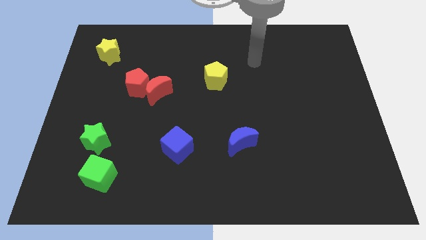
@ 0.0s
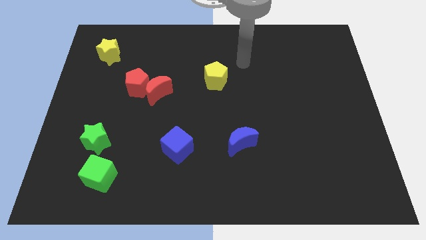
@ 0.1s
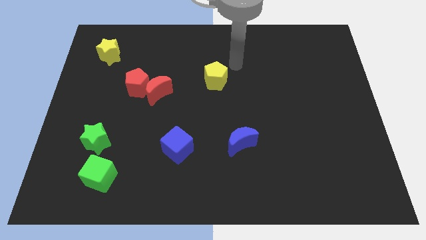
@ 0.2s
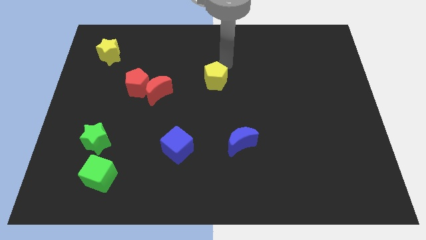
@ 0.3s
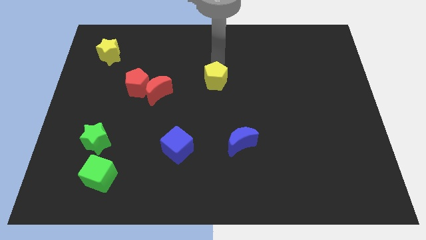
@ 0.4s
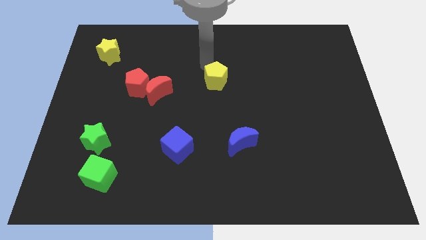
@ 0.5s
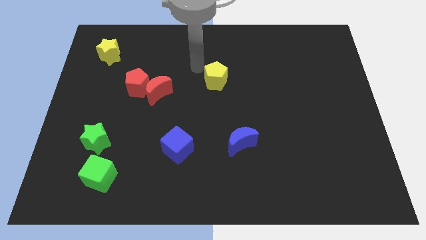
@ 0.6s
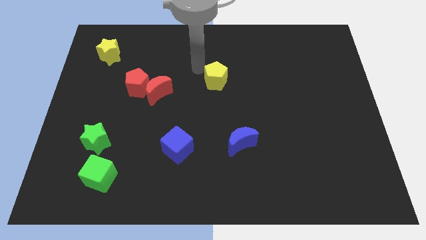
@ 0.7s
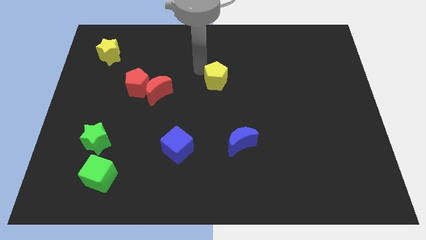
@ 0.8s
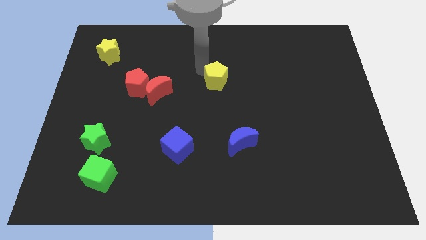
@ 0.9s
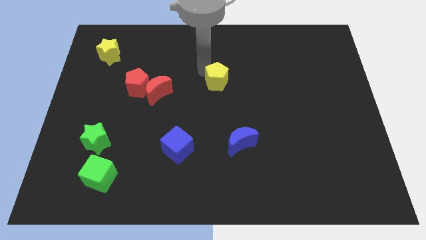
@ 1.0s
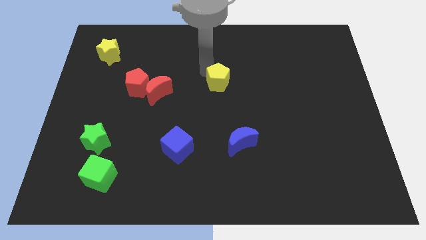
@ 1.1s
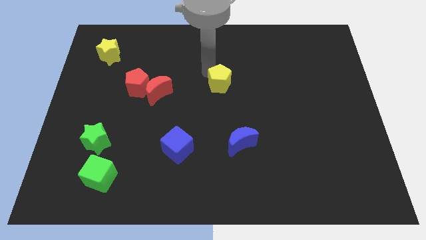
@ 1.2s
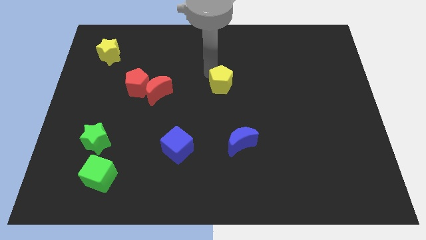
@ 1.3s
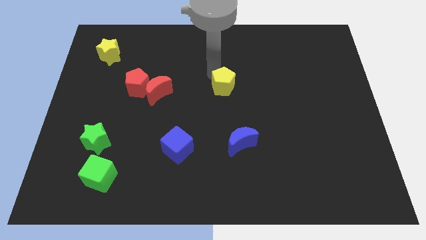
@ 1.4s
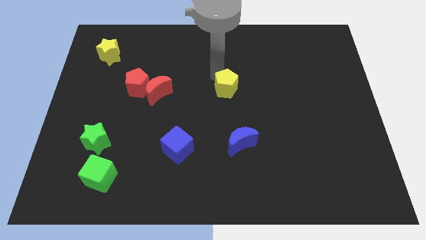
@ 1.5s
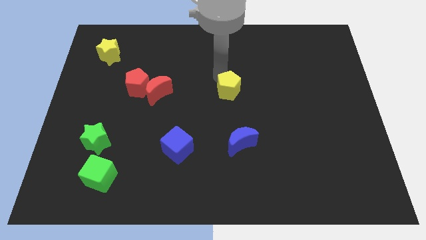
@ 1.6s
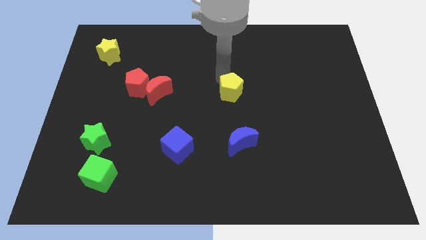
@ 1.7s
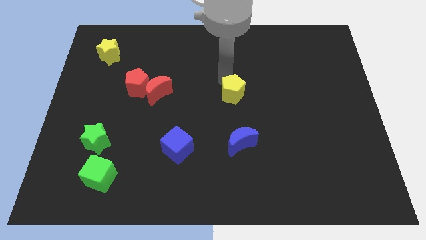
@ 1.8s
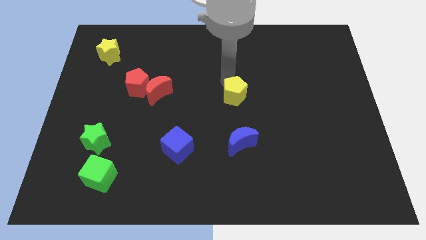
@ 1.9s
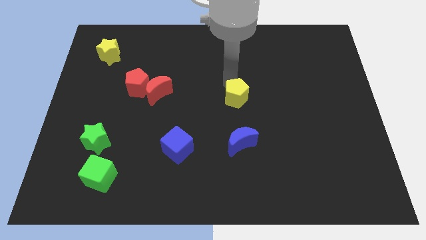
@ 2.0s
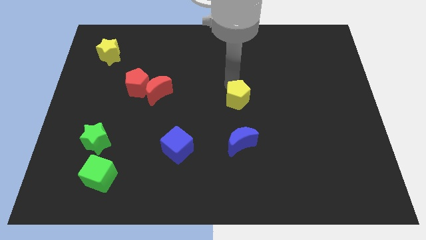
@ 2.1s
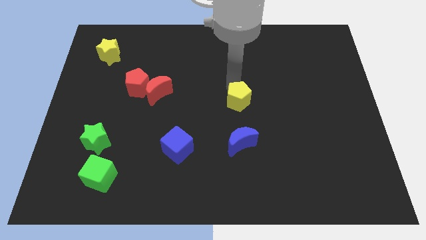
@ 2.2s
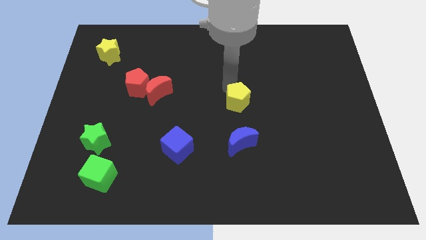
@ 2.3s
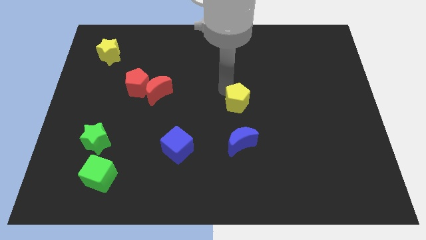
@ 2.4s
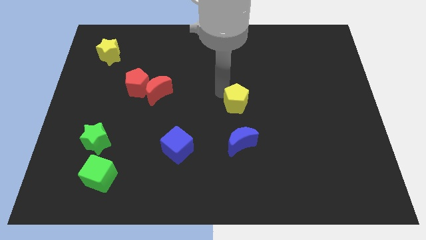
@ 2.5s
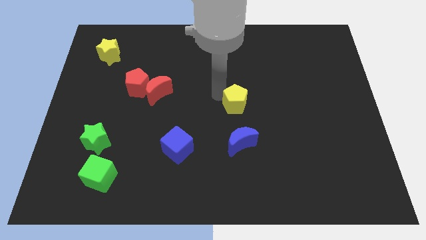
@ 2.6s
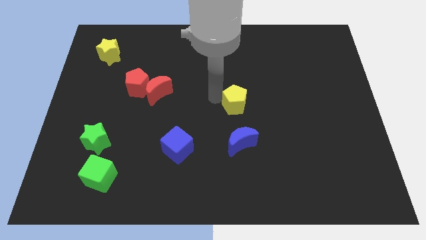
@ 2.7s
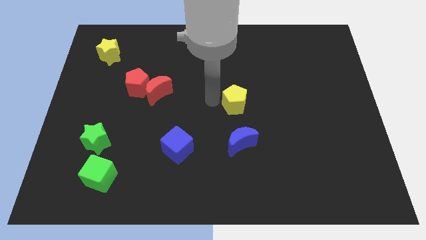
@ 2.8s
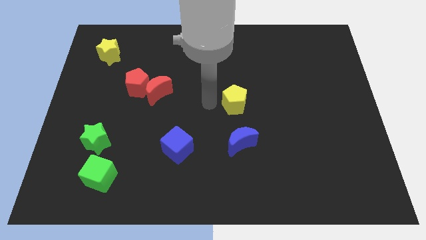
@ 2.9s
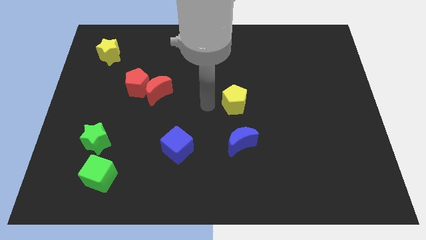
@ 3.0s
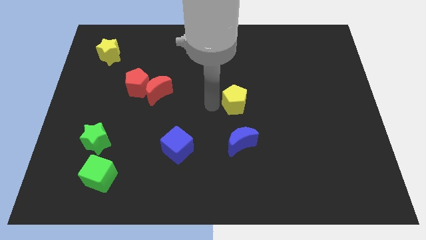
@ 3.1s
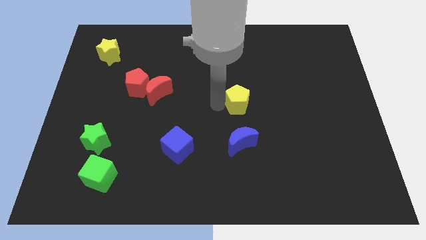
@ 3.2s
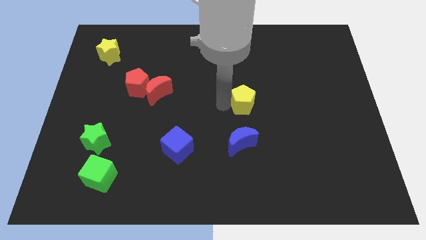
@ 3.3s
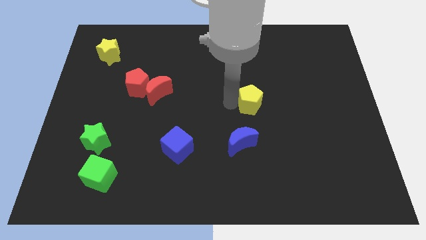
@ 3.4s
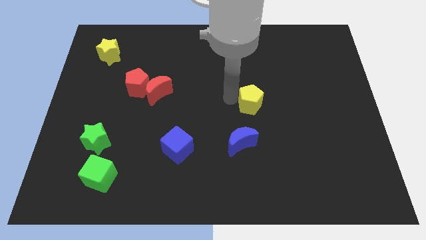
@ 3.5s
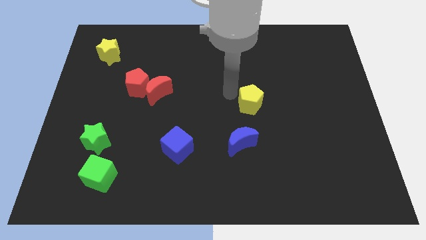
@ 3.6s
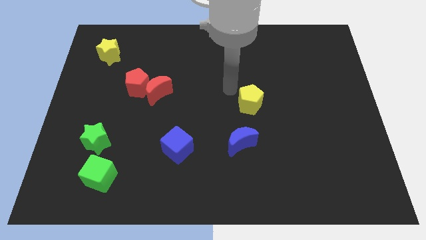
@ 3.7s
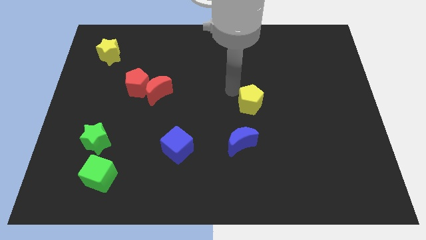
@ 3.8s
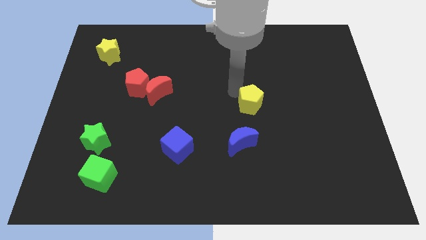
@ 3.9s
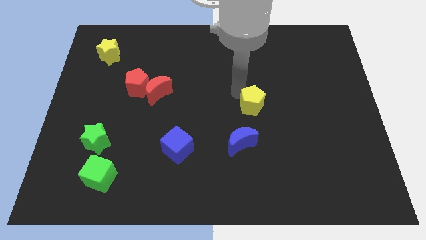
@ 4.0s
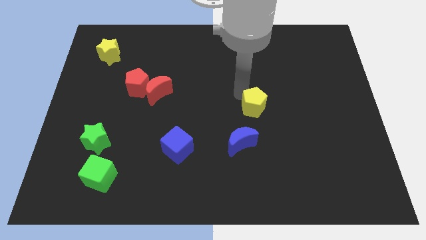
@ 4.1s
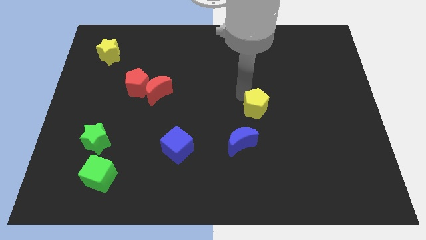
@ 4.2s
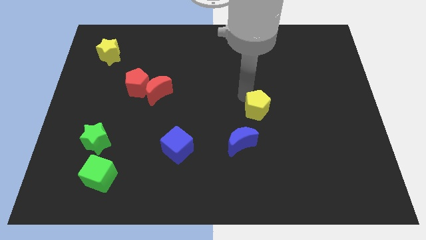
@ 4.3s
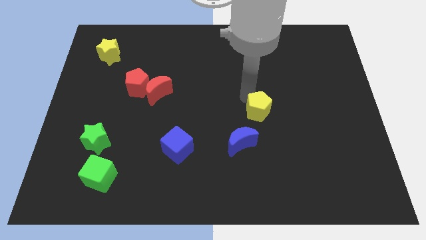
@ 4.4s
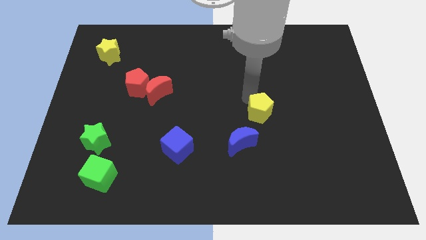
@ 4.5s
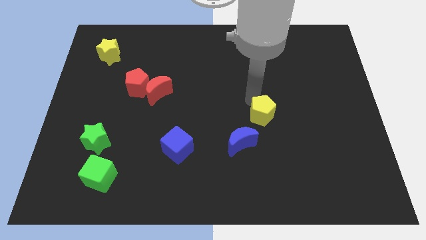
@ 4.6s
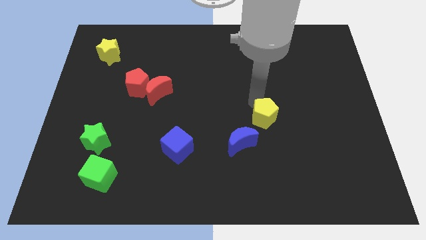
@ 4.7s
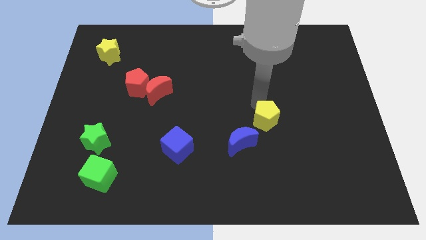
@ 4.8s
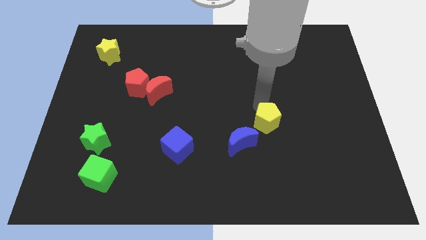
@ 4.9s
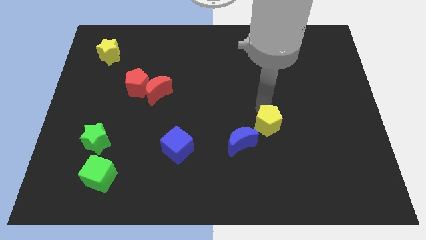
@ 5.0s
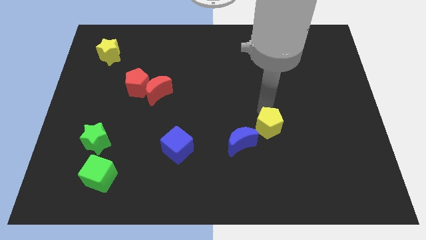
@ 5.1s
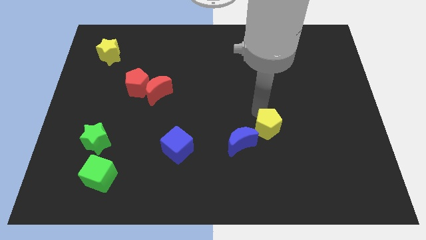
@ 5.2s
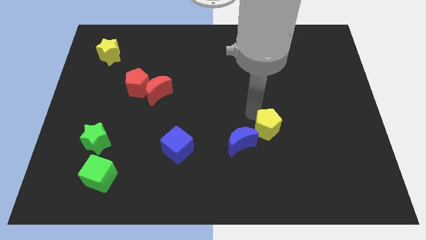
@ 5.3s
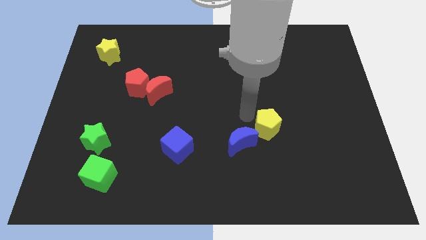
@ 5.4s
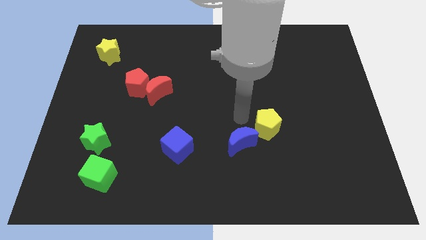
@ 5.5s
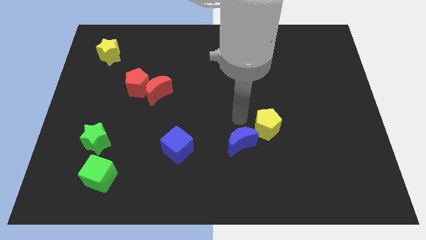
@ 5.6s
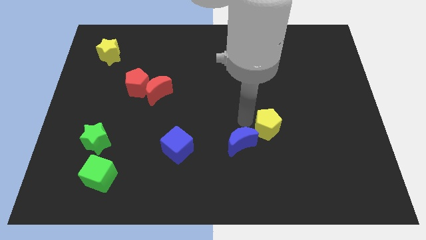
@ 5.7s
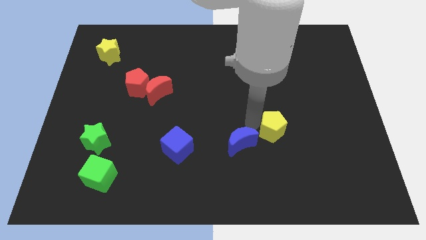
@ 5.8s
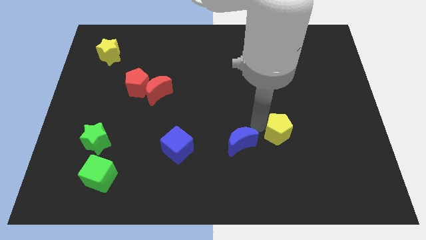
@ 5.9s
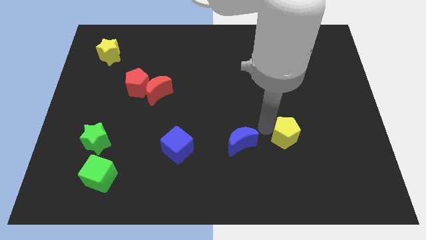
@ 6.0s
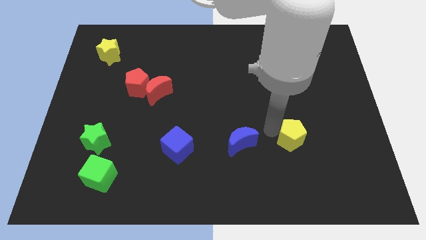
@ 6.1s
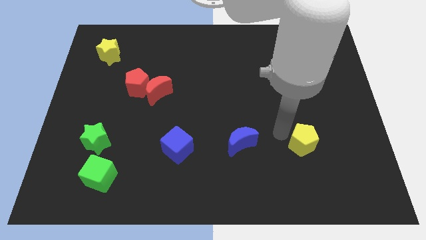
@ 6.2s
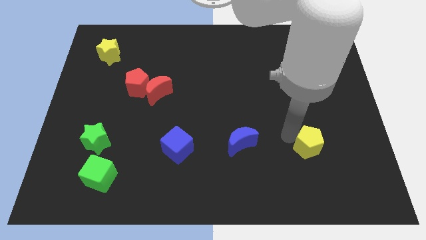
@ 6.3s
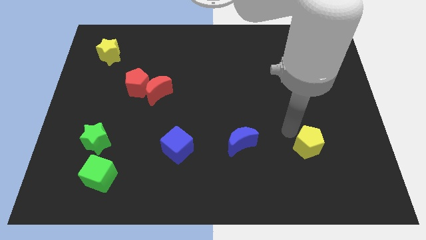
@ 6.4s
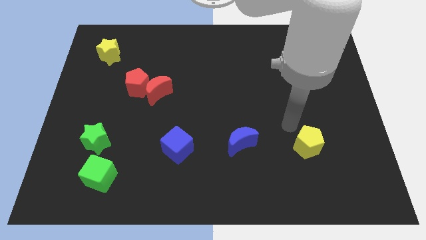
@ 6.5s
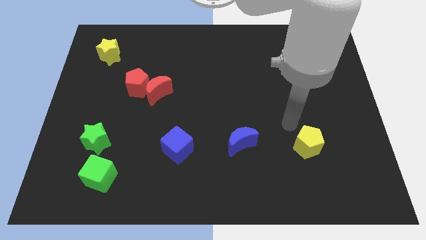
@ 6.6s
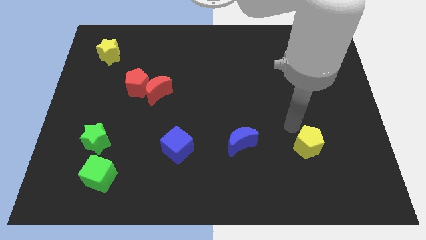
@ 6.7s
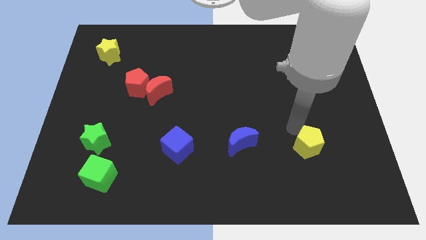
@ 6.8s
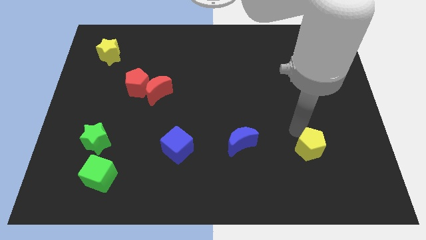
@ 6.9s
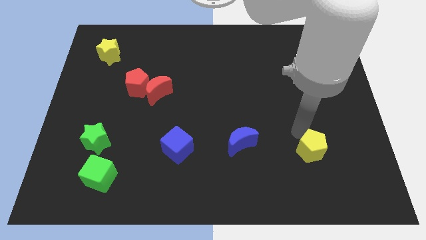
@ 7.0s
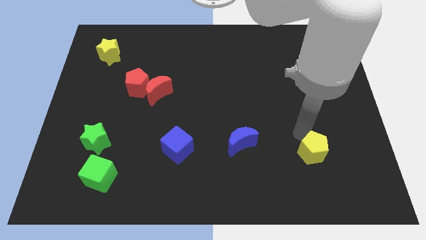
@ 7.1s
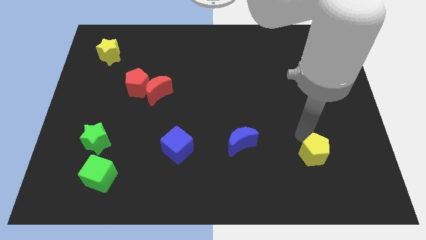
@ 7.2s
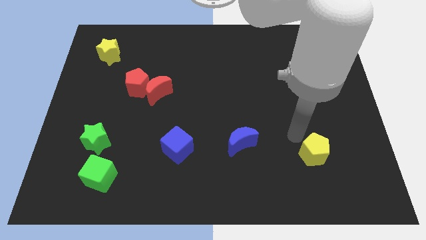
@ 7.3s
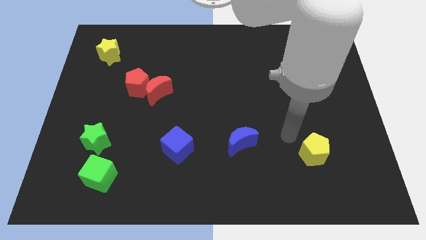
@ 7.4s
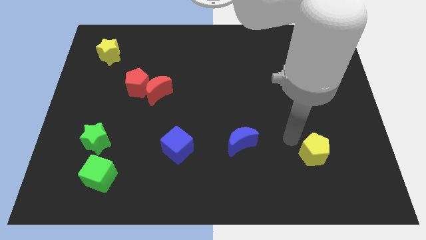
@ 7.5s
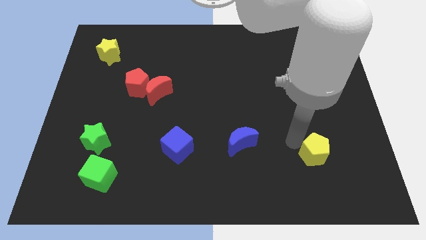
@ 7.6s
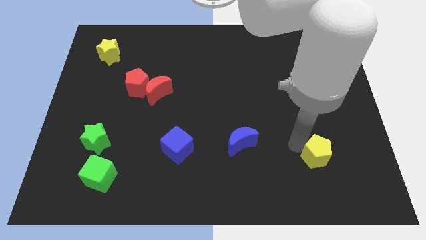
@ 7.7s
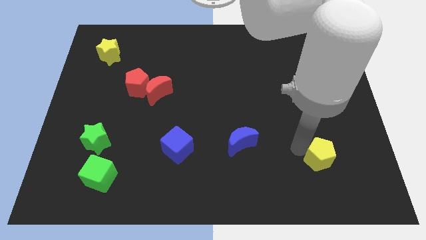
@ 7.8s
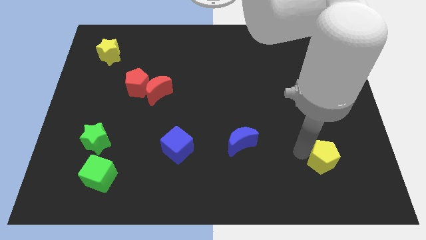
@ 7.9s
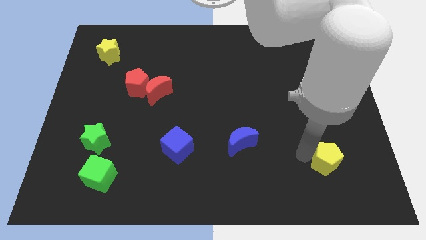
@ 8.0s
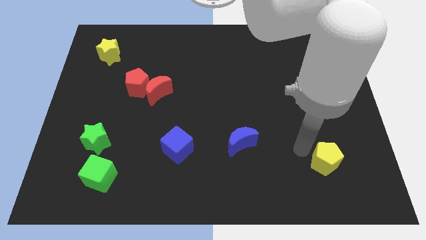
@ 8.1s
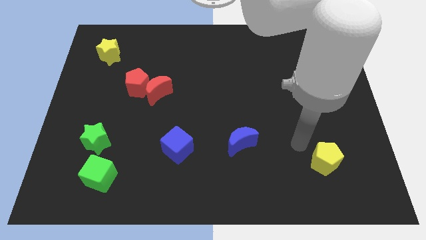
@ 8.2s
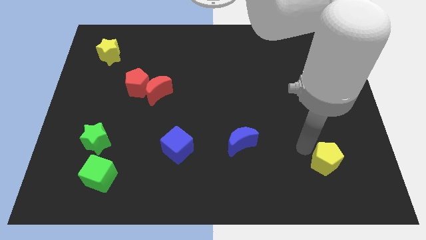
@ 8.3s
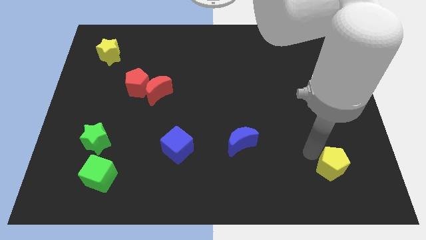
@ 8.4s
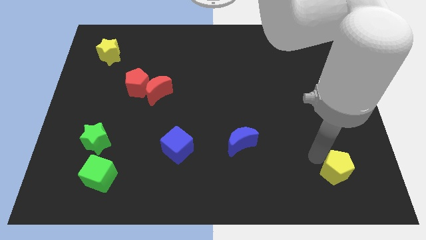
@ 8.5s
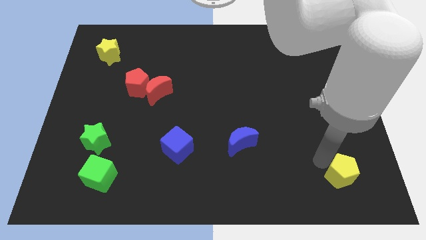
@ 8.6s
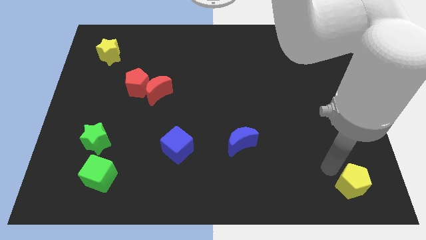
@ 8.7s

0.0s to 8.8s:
move the yellow pentagon to the lower right corner
